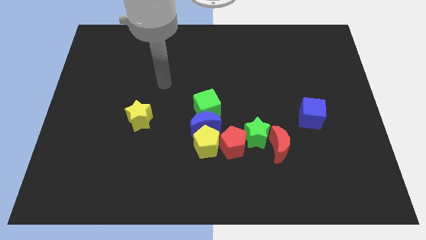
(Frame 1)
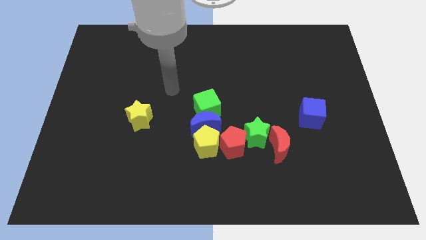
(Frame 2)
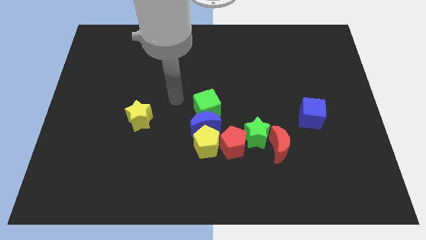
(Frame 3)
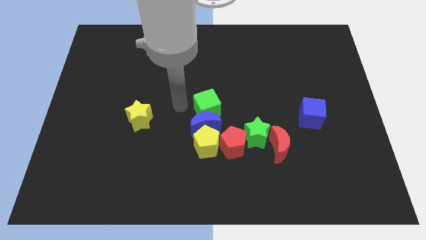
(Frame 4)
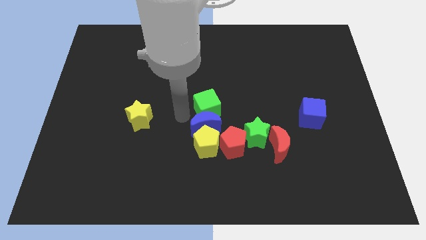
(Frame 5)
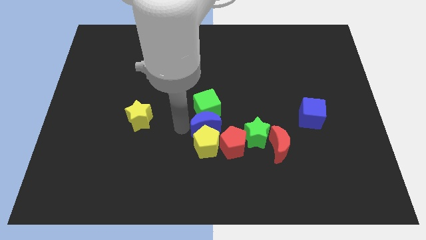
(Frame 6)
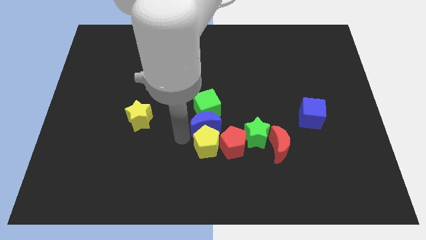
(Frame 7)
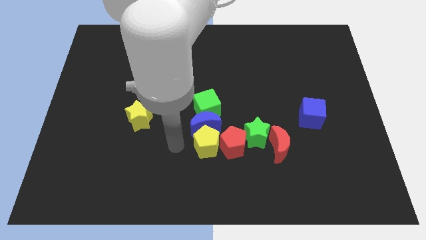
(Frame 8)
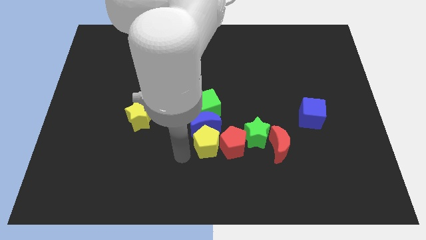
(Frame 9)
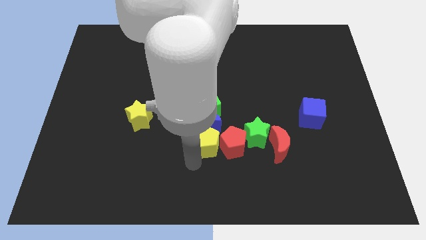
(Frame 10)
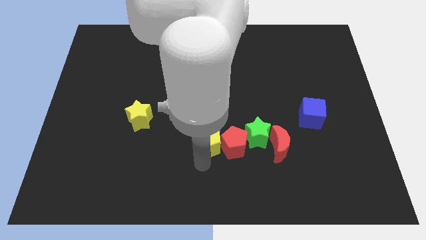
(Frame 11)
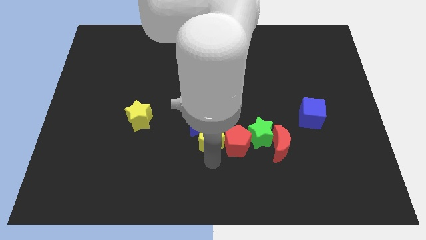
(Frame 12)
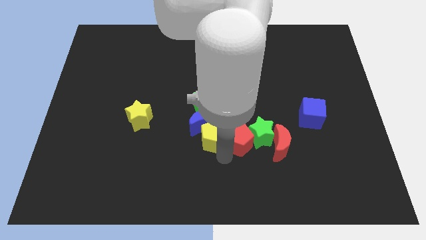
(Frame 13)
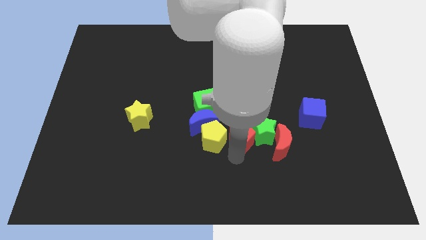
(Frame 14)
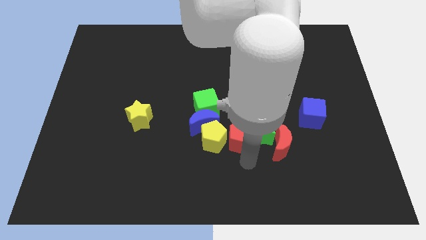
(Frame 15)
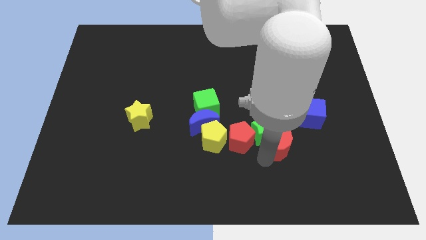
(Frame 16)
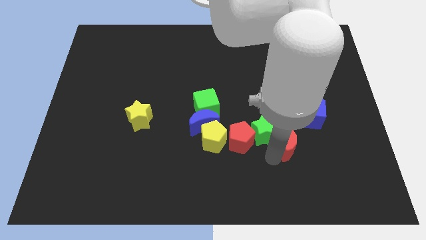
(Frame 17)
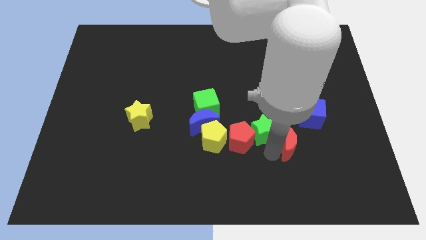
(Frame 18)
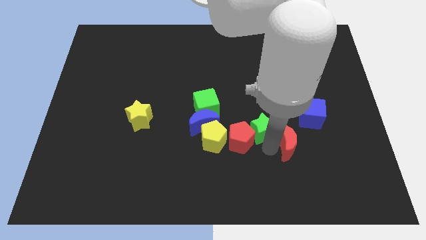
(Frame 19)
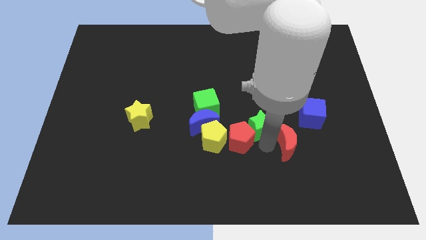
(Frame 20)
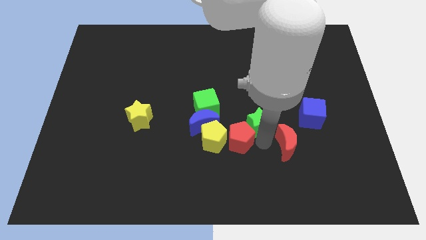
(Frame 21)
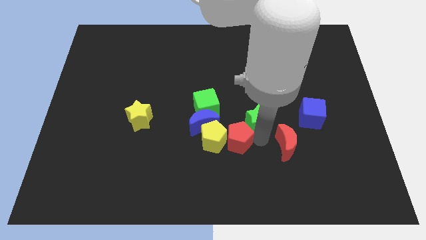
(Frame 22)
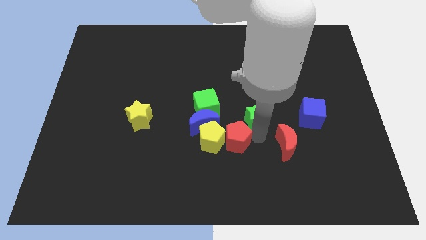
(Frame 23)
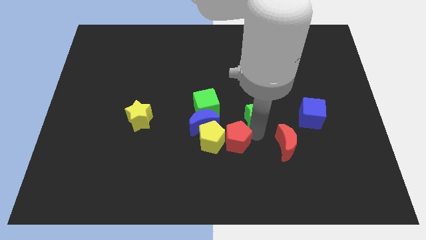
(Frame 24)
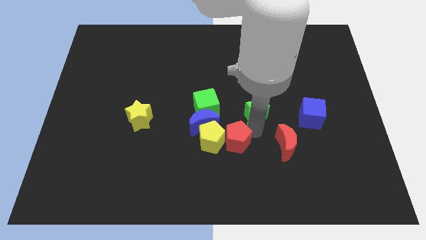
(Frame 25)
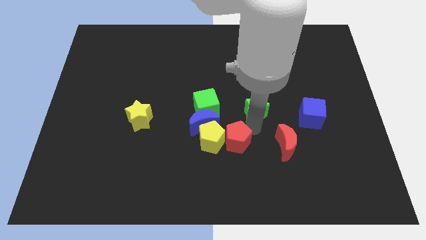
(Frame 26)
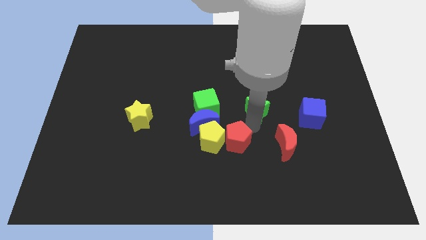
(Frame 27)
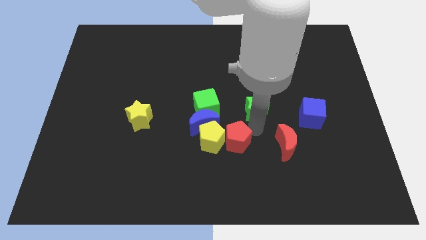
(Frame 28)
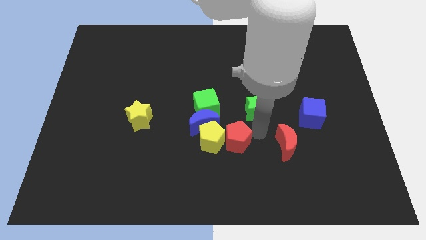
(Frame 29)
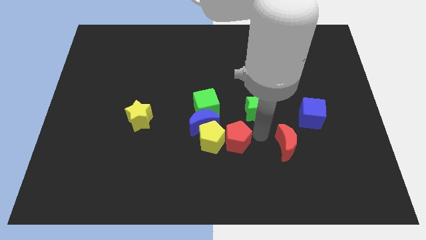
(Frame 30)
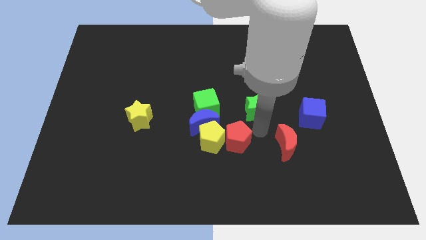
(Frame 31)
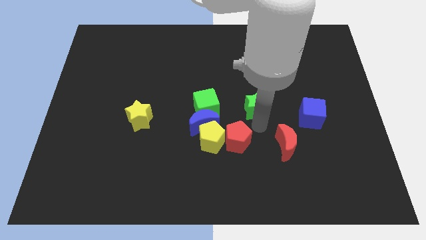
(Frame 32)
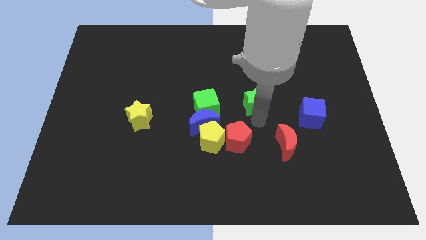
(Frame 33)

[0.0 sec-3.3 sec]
move the green star away from the red moon and red pentagon

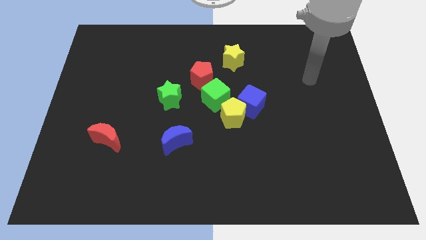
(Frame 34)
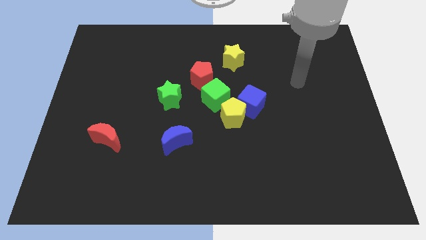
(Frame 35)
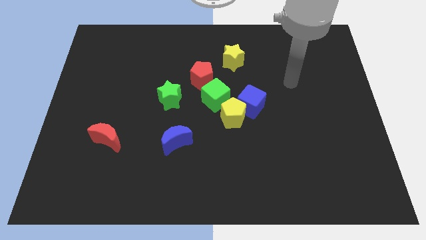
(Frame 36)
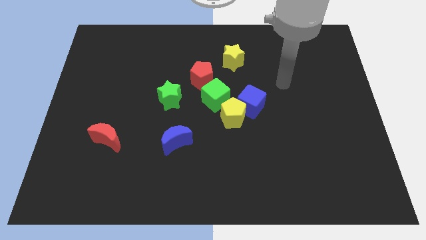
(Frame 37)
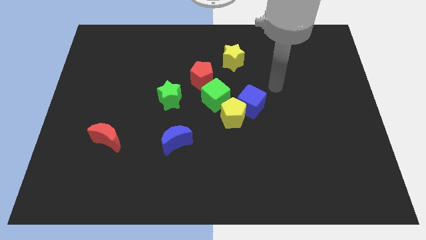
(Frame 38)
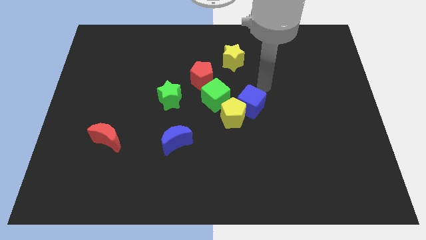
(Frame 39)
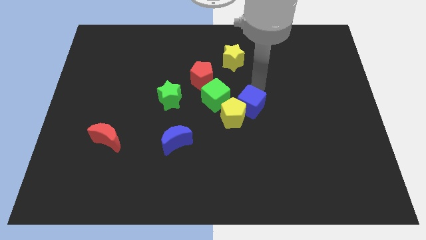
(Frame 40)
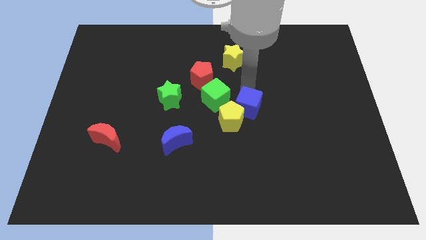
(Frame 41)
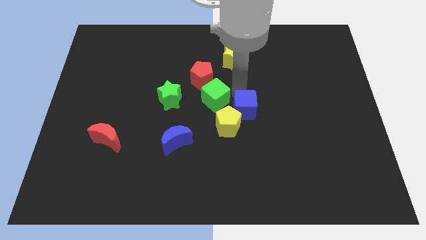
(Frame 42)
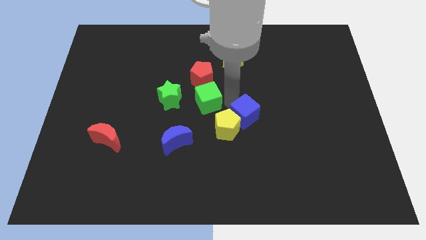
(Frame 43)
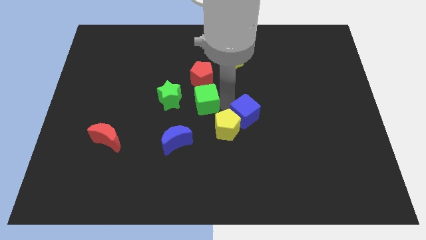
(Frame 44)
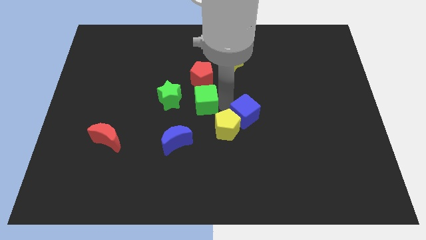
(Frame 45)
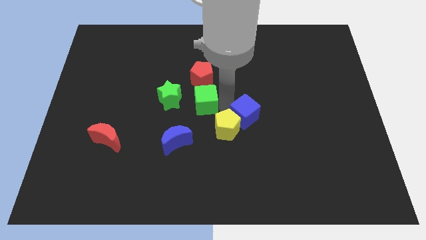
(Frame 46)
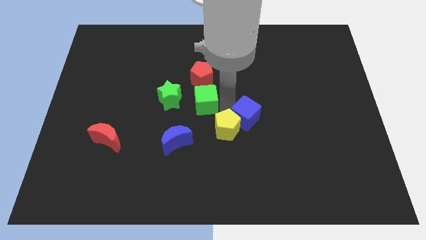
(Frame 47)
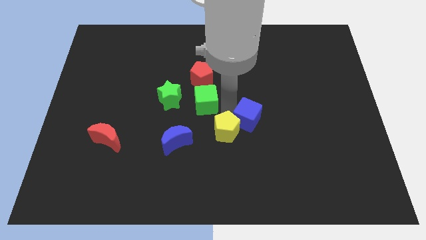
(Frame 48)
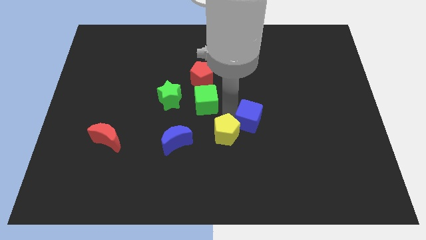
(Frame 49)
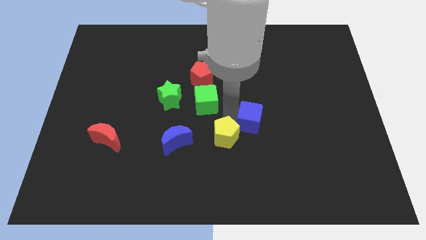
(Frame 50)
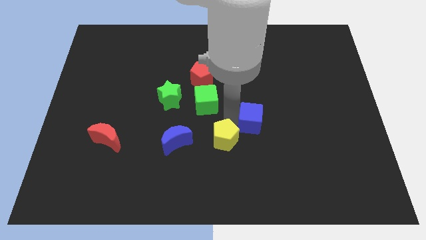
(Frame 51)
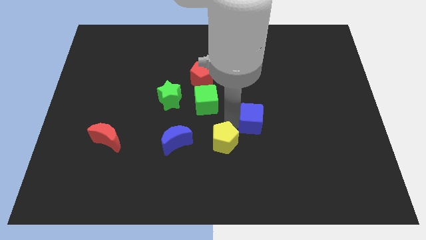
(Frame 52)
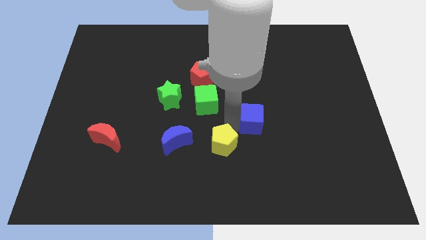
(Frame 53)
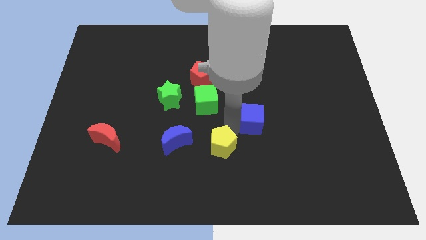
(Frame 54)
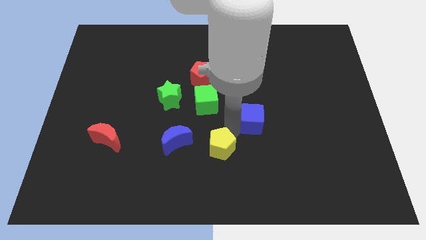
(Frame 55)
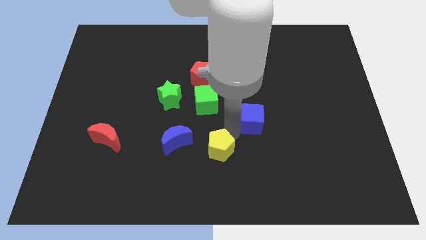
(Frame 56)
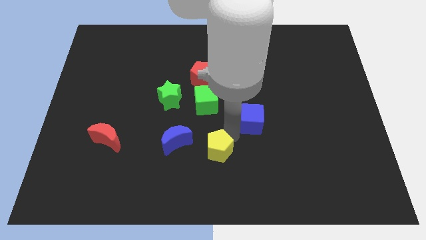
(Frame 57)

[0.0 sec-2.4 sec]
pull the yellow pentagon apart from the blue cube and green cube

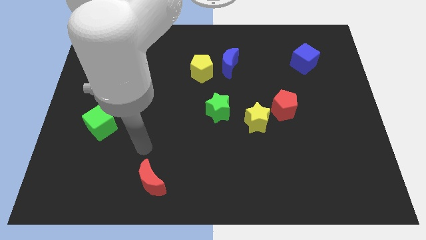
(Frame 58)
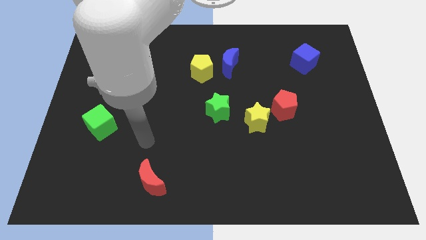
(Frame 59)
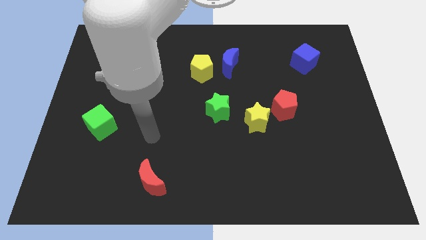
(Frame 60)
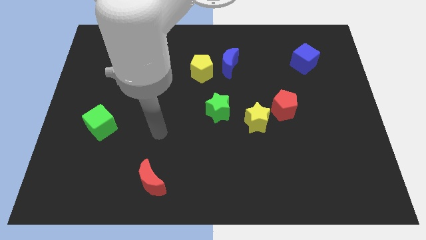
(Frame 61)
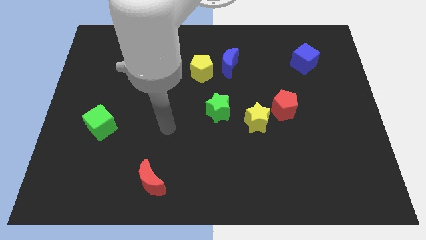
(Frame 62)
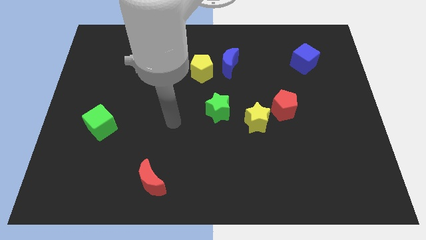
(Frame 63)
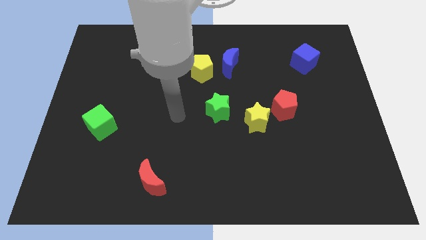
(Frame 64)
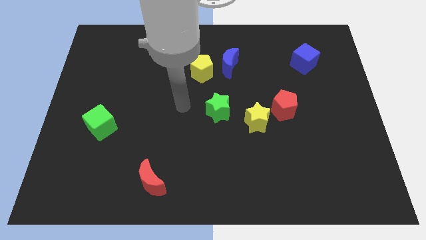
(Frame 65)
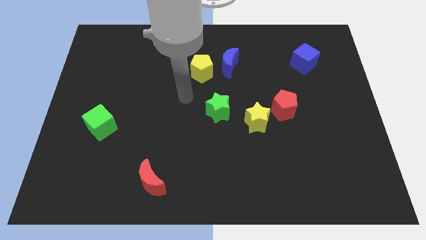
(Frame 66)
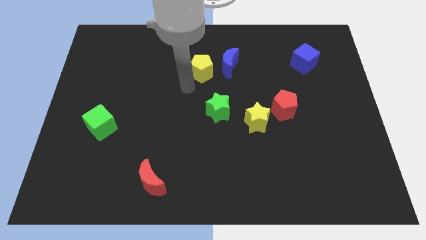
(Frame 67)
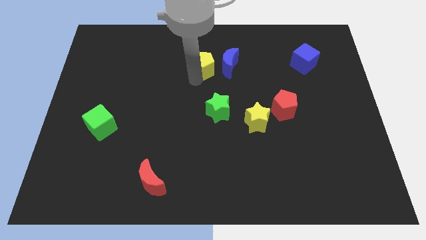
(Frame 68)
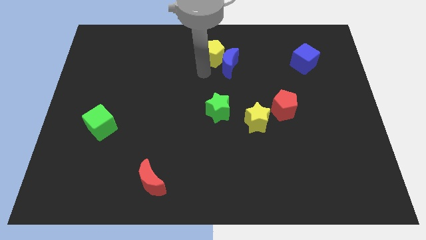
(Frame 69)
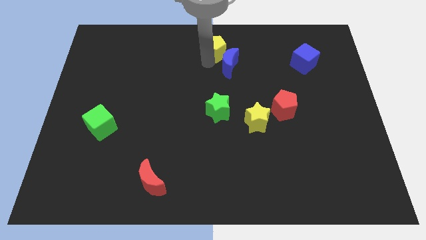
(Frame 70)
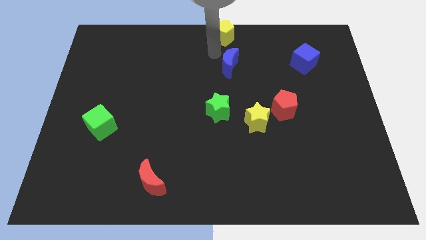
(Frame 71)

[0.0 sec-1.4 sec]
pull the blue moon apart from the yellow pentagon

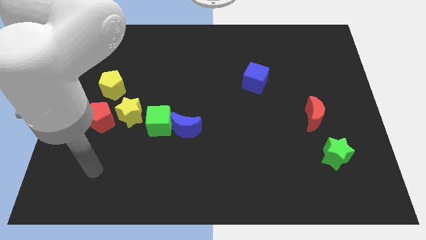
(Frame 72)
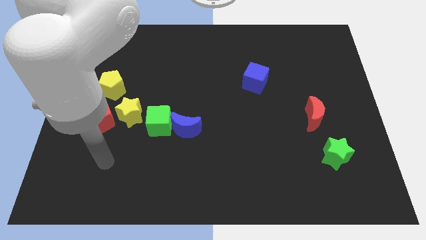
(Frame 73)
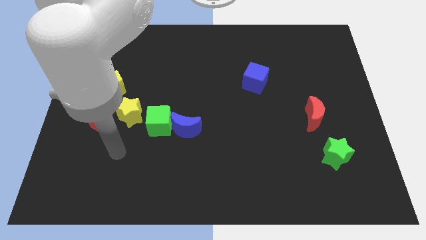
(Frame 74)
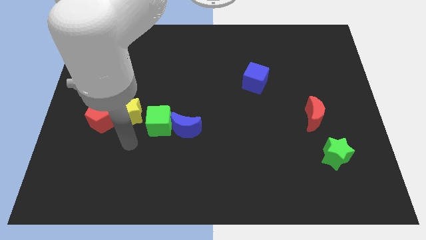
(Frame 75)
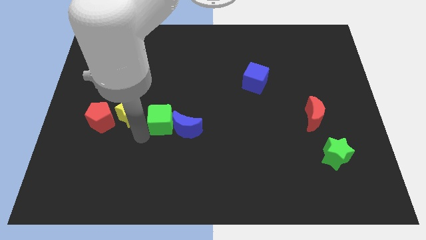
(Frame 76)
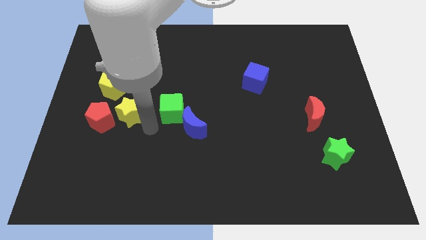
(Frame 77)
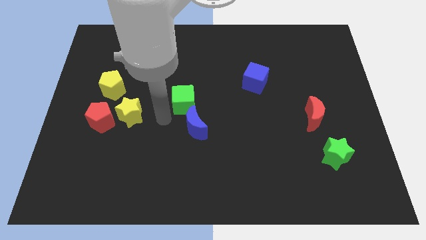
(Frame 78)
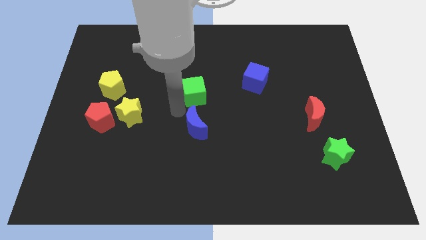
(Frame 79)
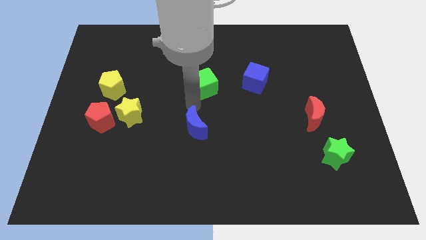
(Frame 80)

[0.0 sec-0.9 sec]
separate the blue moon from the green cube

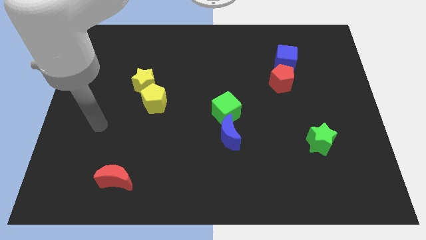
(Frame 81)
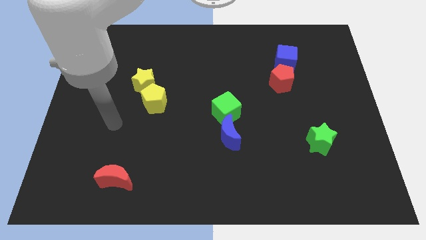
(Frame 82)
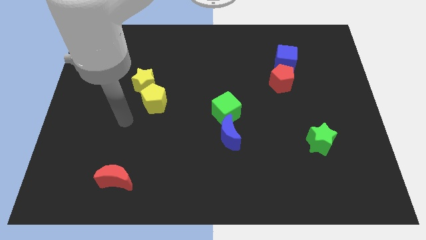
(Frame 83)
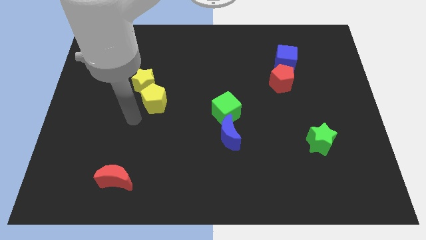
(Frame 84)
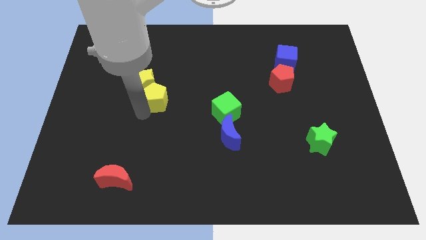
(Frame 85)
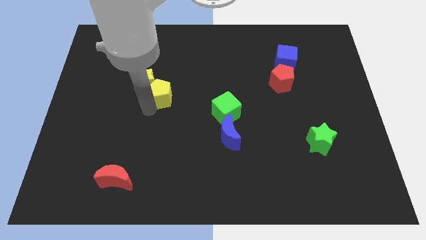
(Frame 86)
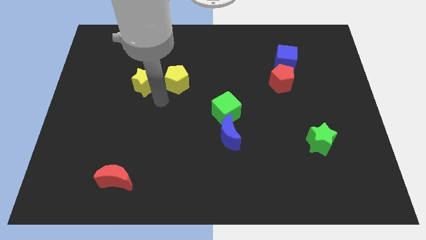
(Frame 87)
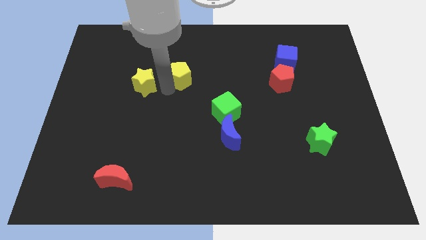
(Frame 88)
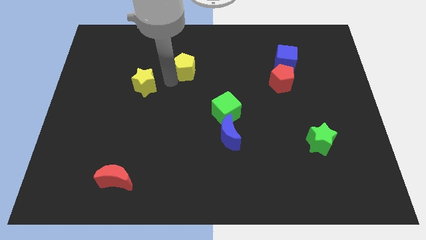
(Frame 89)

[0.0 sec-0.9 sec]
pull the yellow star apart from the yellow pentagon

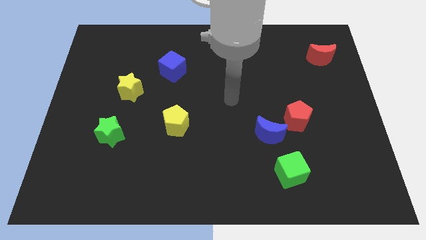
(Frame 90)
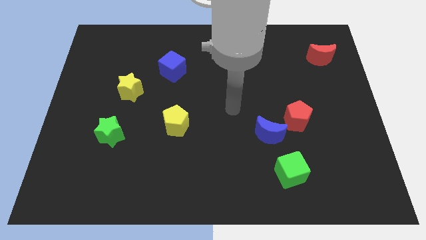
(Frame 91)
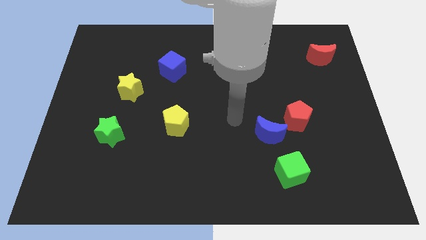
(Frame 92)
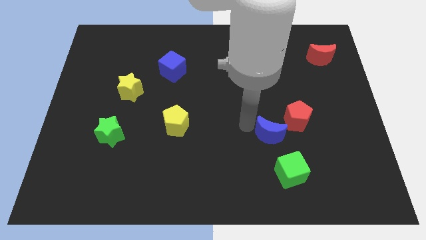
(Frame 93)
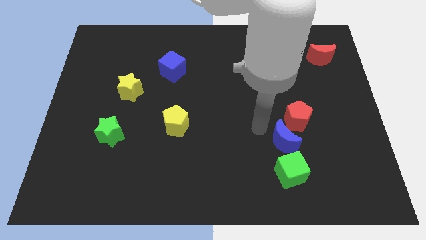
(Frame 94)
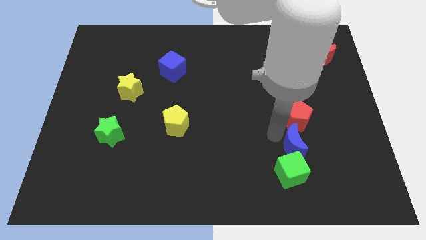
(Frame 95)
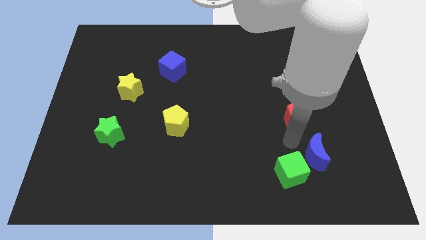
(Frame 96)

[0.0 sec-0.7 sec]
move the red pentagon away from the blue moon
